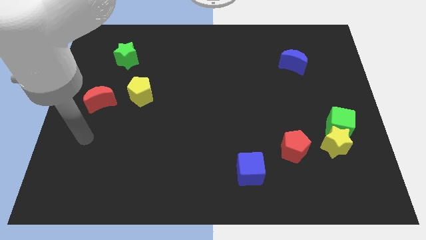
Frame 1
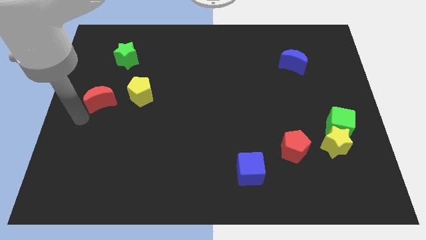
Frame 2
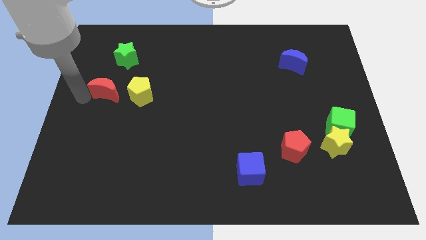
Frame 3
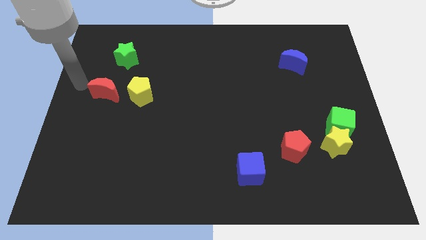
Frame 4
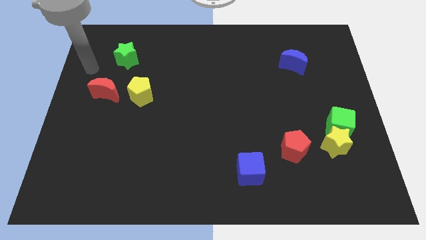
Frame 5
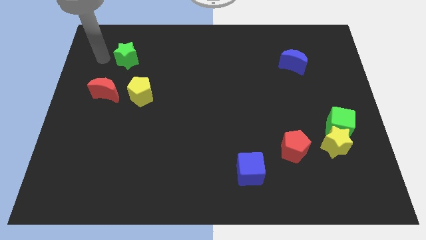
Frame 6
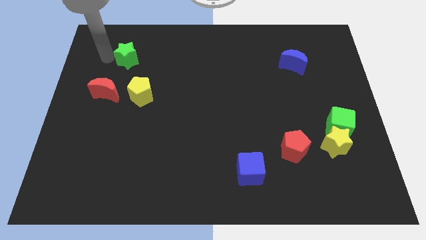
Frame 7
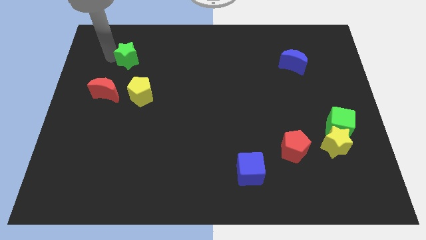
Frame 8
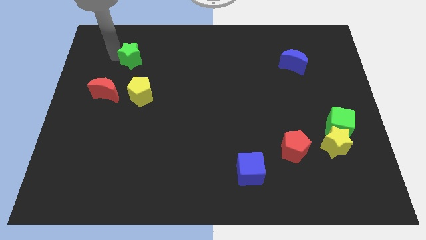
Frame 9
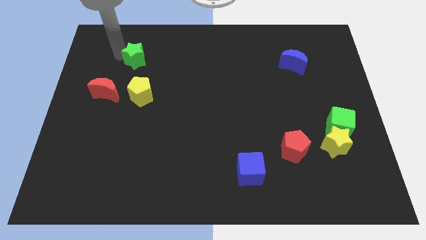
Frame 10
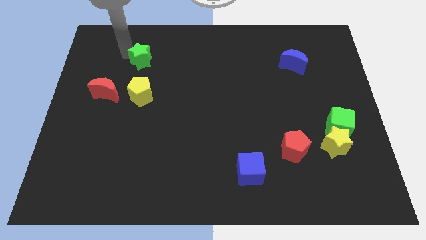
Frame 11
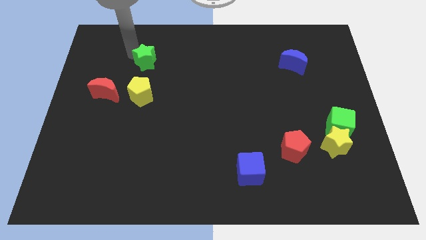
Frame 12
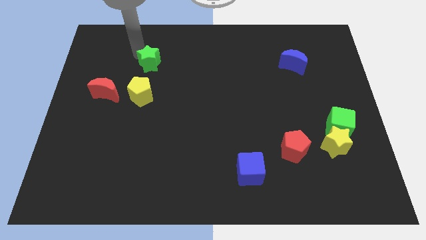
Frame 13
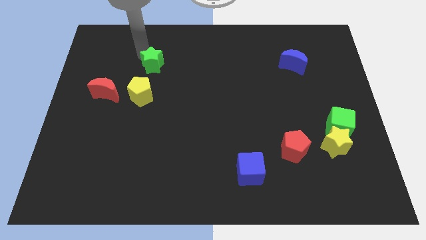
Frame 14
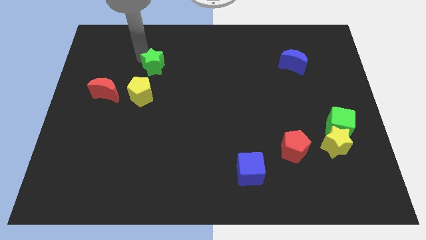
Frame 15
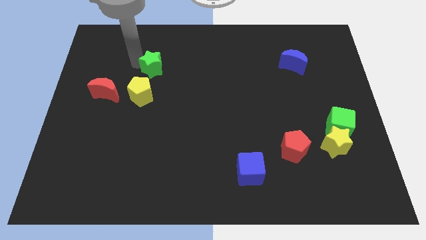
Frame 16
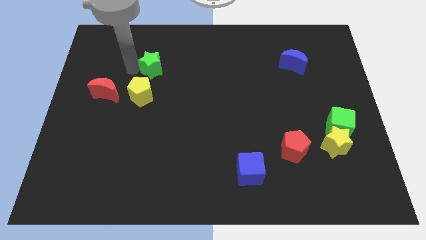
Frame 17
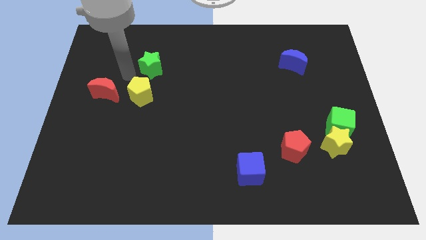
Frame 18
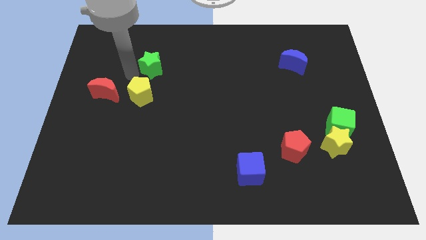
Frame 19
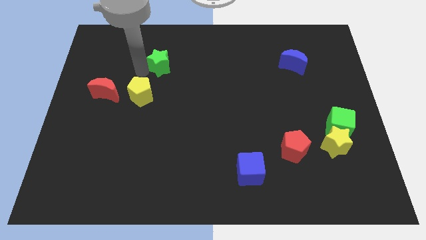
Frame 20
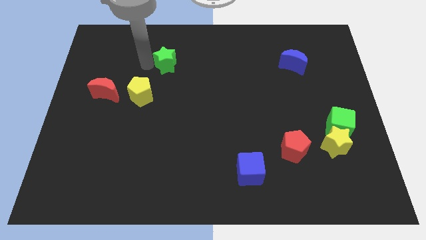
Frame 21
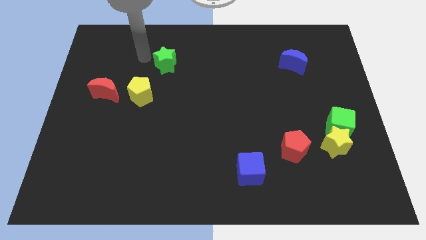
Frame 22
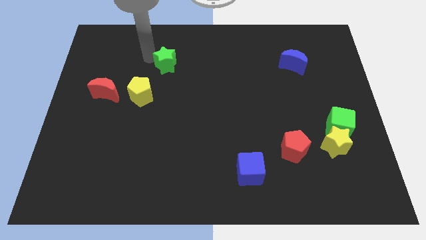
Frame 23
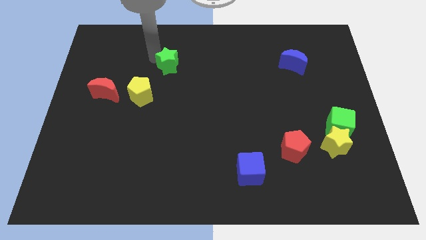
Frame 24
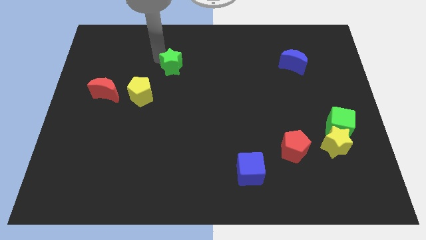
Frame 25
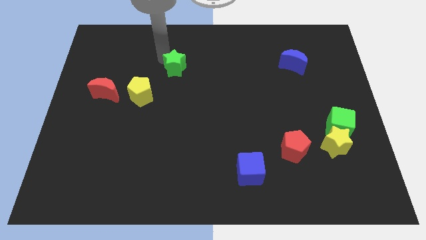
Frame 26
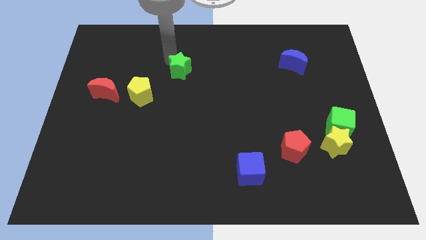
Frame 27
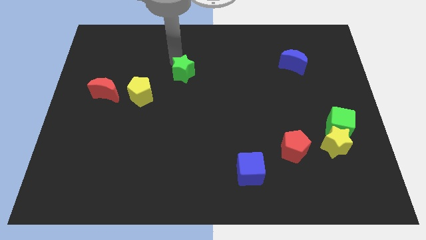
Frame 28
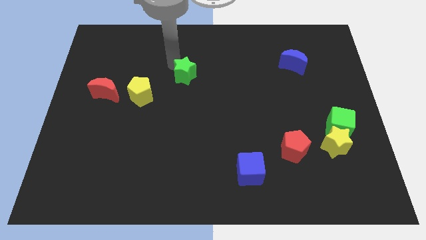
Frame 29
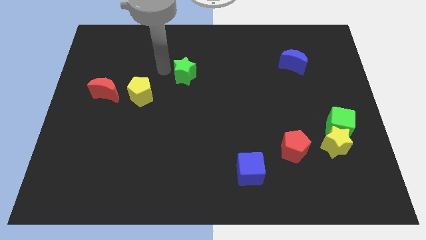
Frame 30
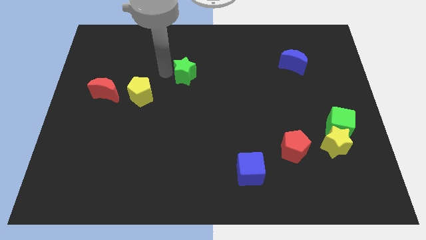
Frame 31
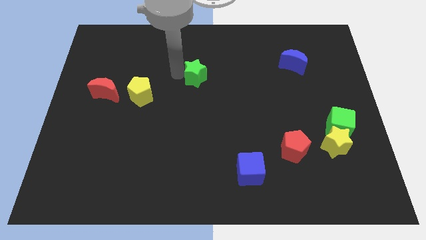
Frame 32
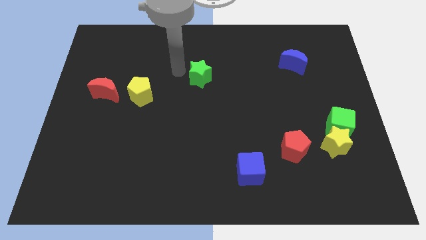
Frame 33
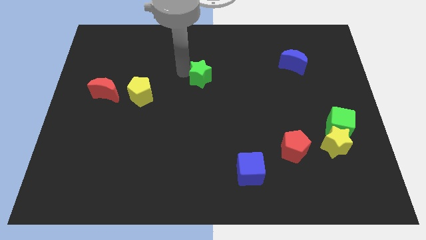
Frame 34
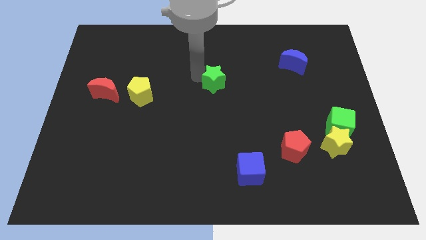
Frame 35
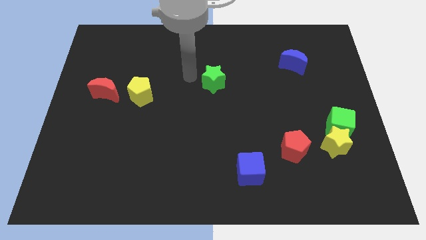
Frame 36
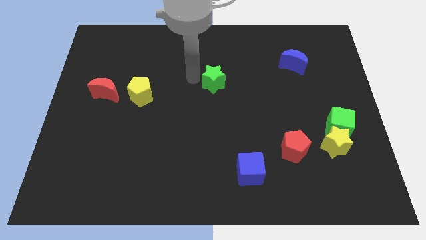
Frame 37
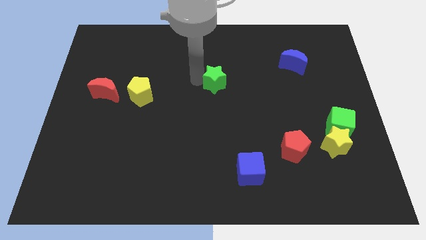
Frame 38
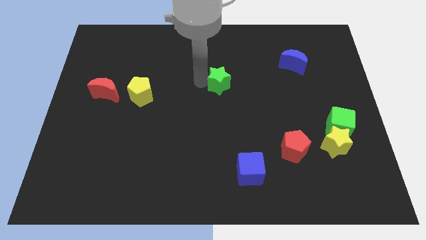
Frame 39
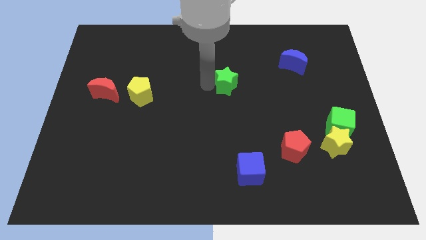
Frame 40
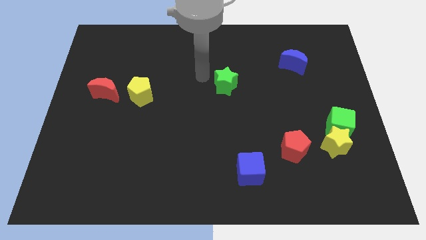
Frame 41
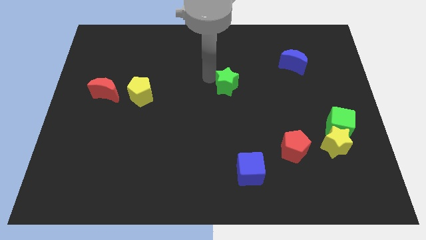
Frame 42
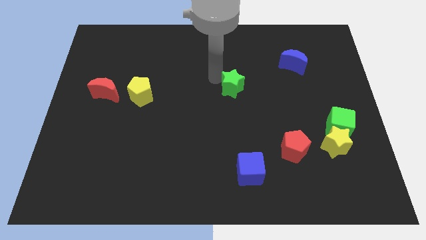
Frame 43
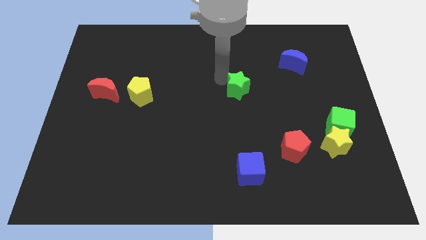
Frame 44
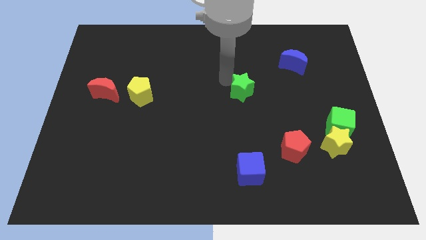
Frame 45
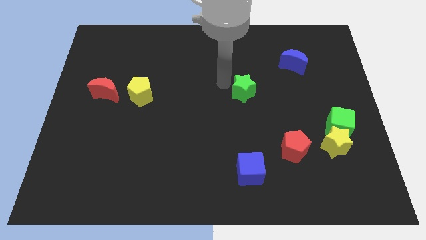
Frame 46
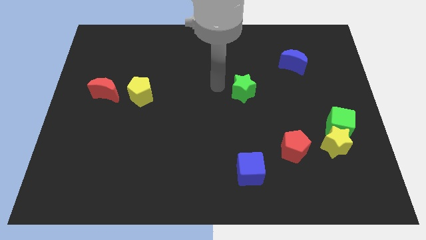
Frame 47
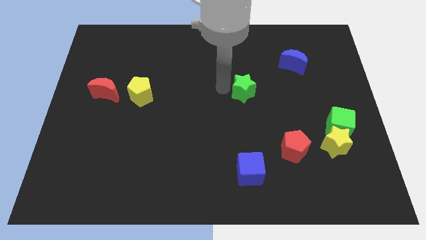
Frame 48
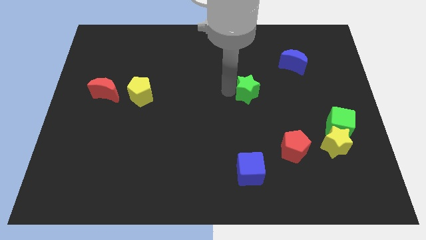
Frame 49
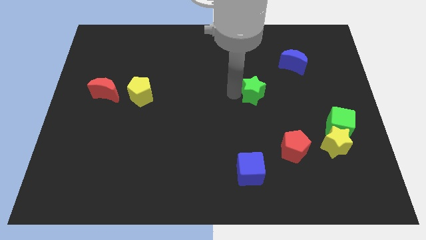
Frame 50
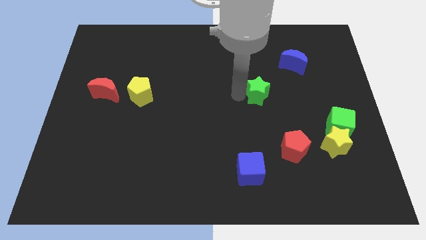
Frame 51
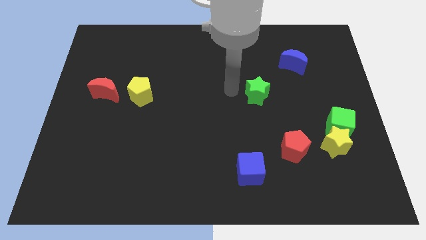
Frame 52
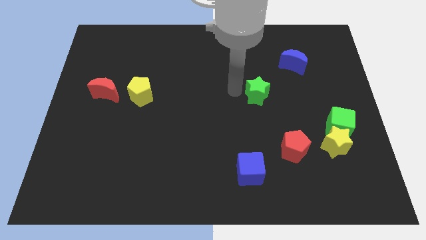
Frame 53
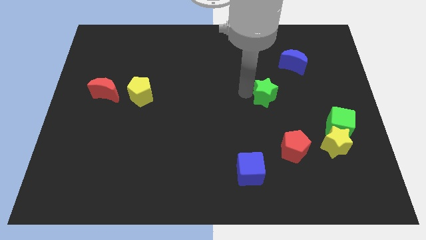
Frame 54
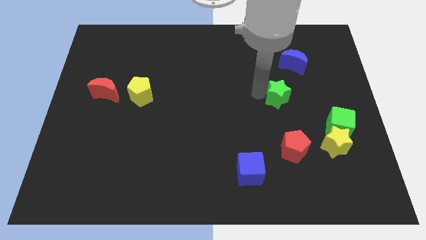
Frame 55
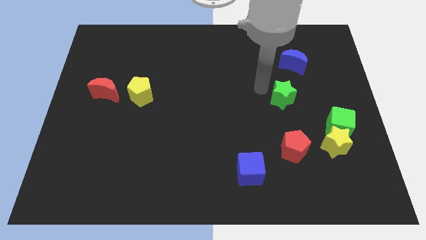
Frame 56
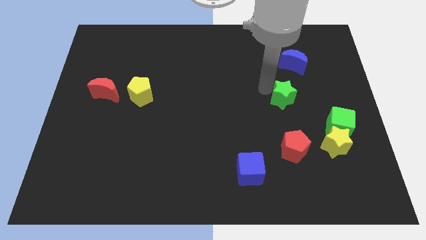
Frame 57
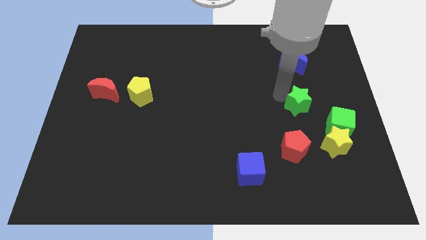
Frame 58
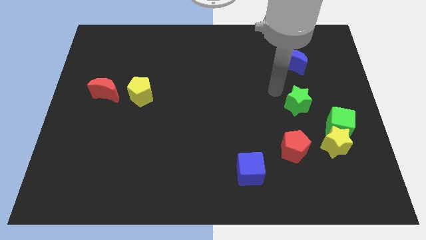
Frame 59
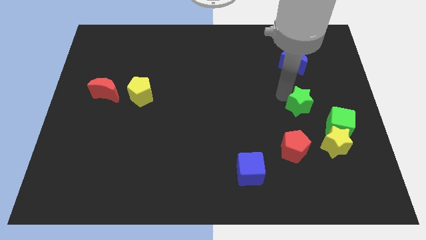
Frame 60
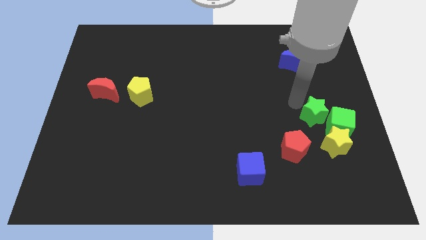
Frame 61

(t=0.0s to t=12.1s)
push the green star towards the green cube
